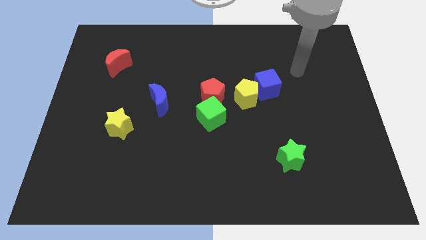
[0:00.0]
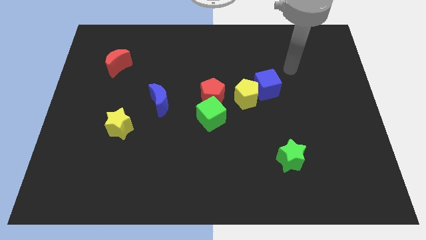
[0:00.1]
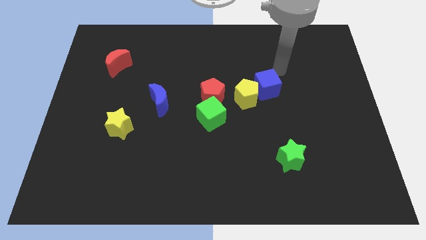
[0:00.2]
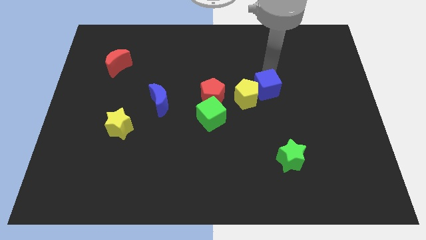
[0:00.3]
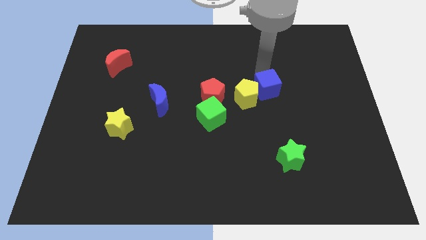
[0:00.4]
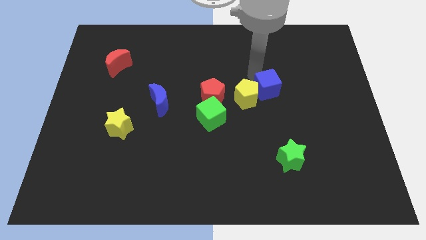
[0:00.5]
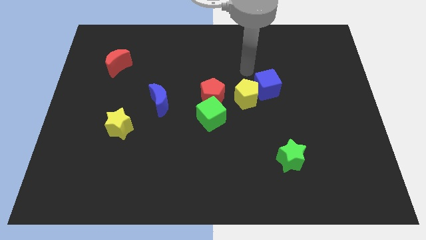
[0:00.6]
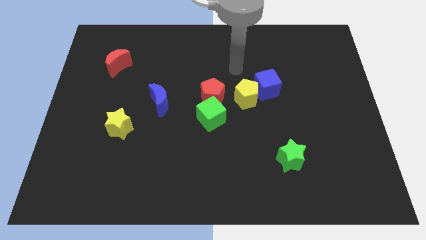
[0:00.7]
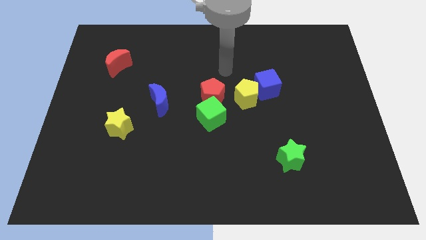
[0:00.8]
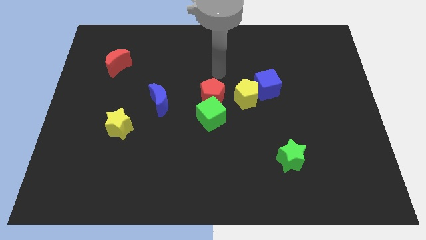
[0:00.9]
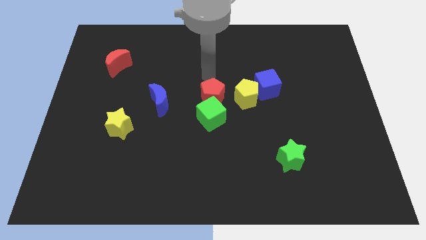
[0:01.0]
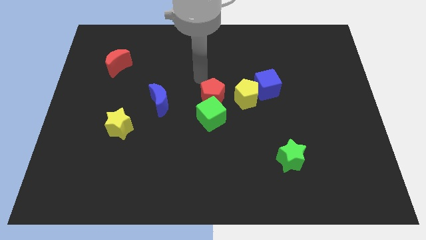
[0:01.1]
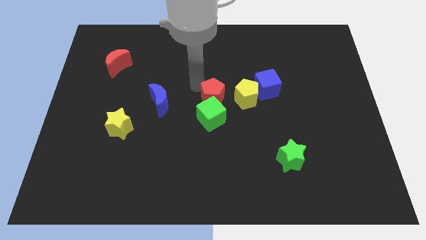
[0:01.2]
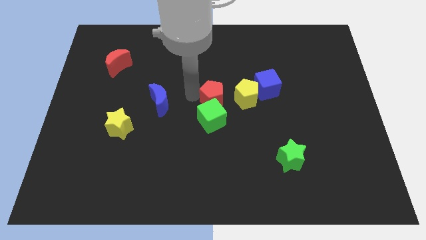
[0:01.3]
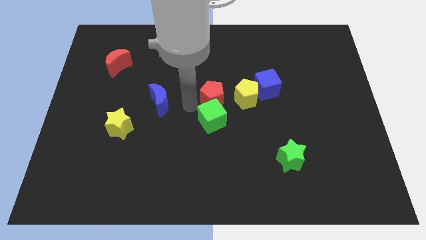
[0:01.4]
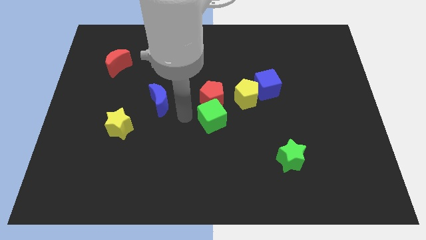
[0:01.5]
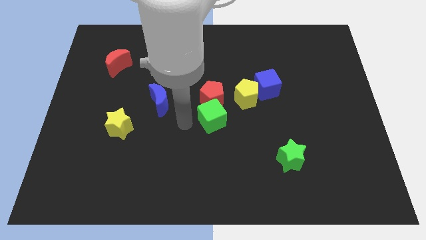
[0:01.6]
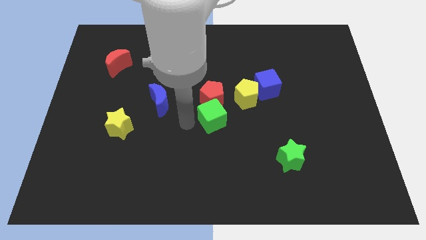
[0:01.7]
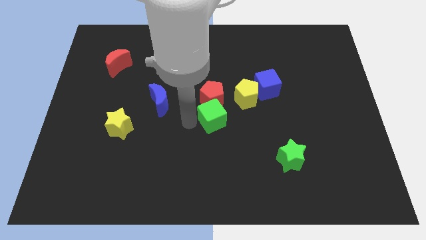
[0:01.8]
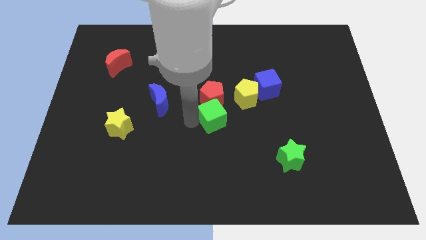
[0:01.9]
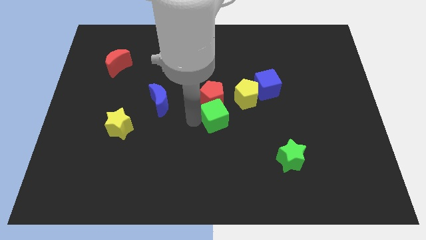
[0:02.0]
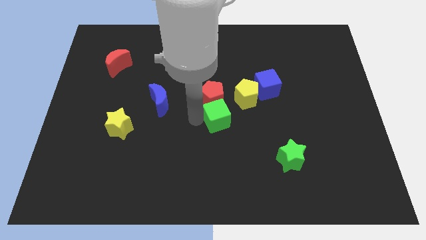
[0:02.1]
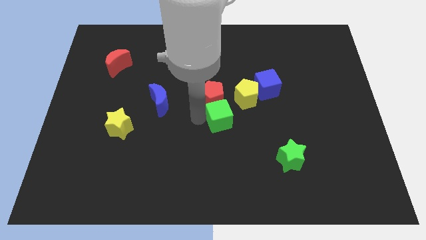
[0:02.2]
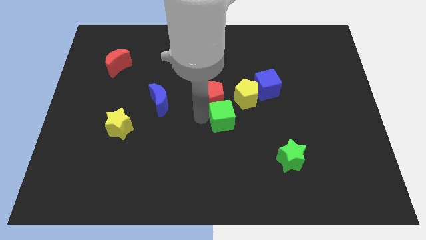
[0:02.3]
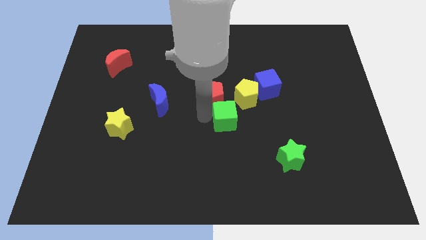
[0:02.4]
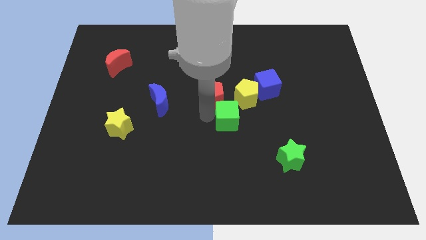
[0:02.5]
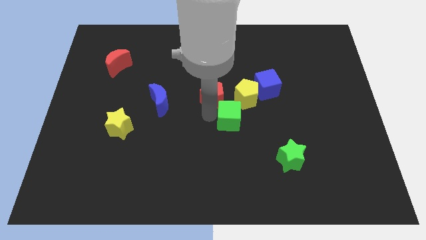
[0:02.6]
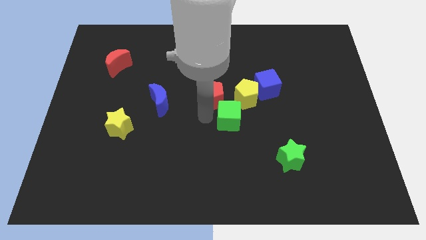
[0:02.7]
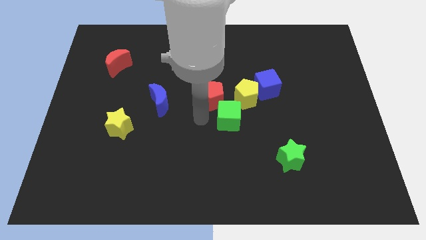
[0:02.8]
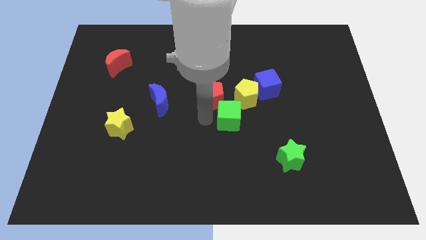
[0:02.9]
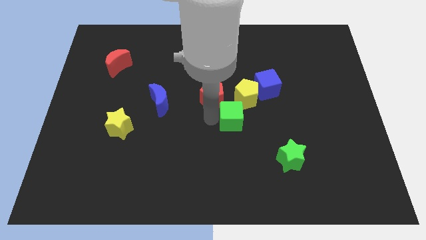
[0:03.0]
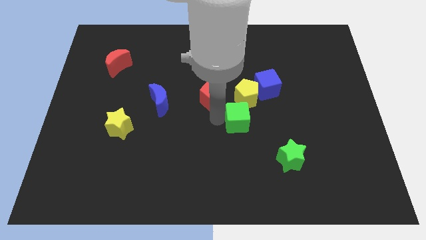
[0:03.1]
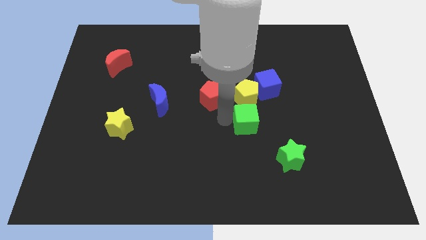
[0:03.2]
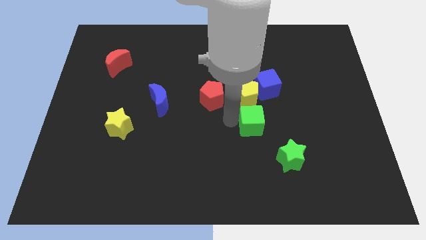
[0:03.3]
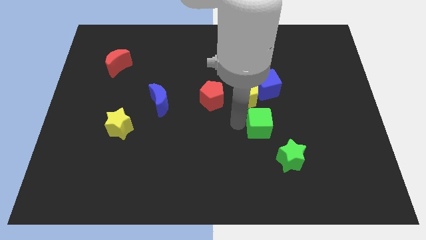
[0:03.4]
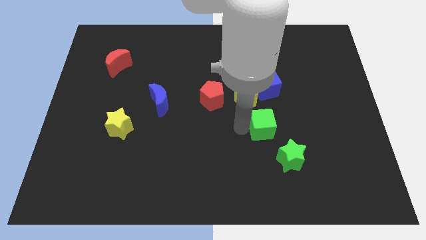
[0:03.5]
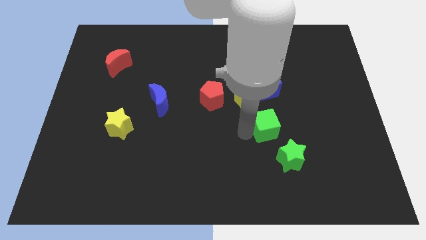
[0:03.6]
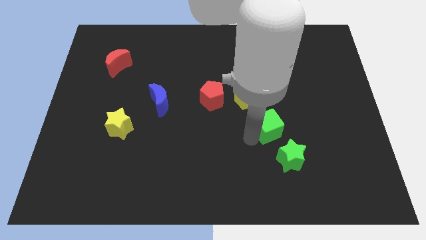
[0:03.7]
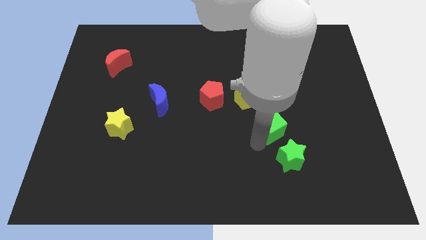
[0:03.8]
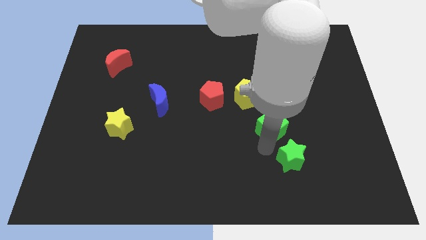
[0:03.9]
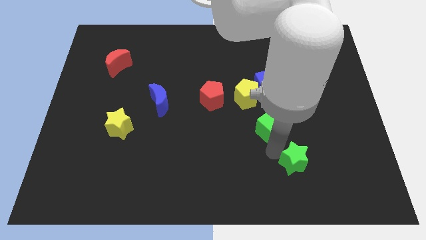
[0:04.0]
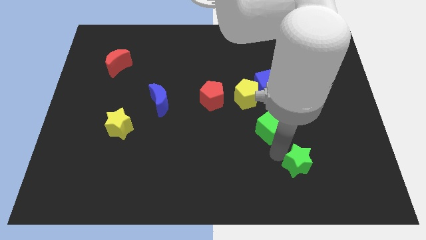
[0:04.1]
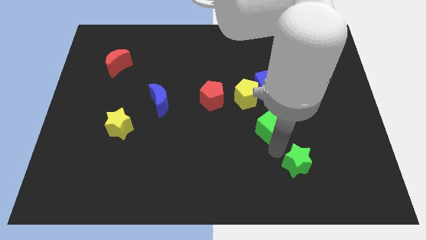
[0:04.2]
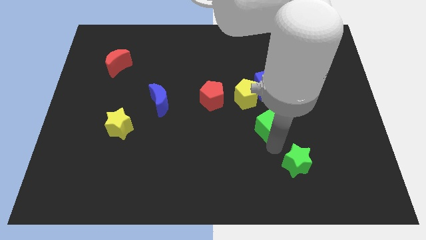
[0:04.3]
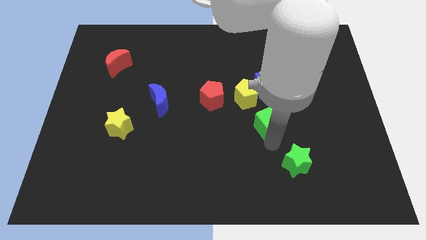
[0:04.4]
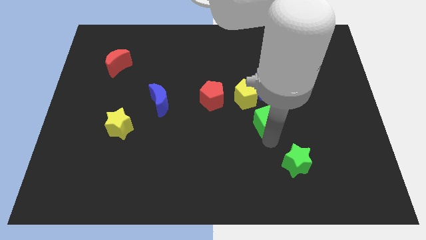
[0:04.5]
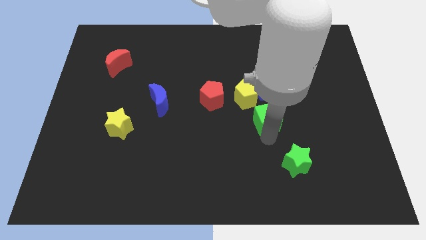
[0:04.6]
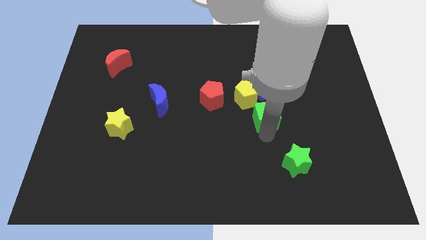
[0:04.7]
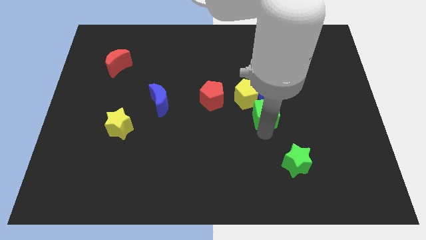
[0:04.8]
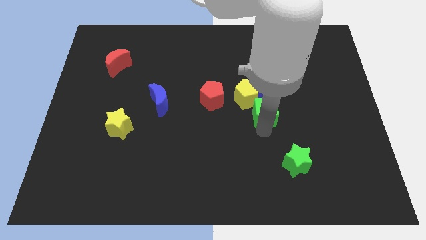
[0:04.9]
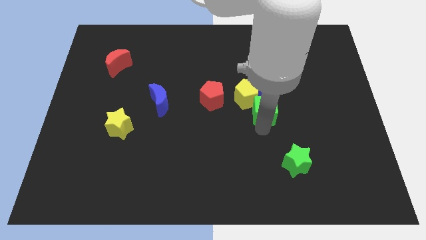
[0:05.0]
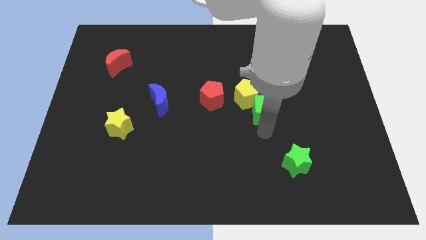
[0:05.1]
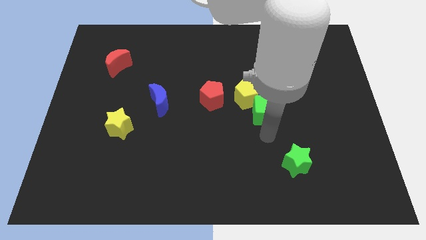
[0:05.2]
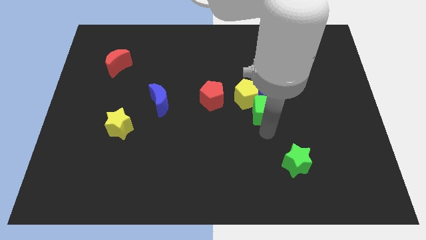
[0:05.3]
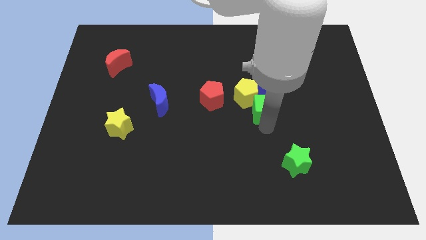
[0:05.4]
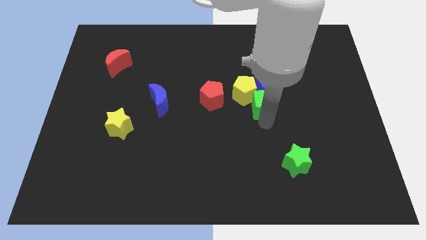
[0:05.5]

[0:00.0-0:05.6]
put the green cube next to the blue cube

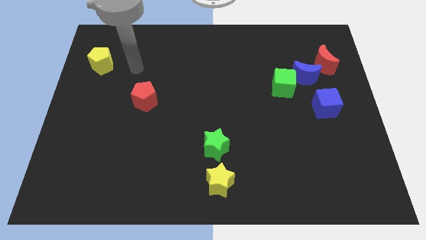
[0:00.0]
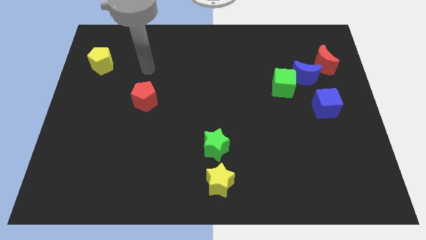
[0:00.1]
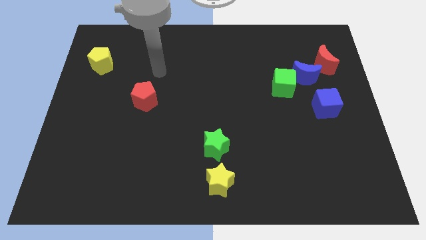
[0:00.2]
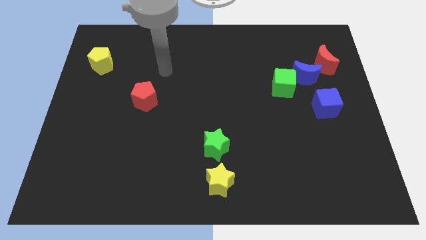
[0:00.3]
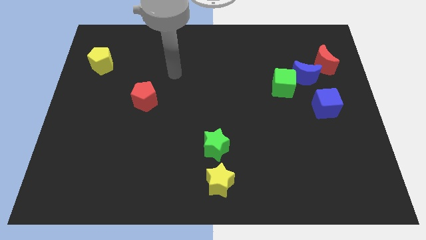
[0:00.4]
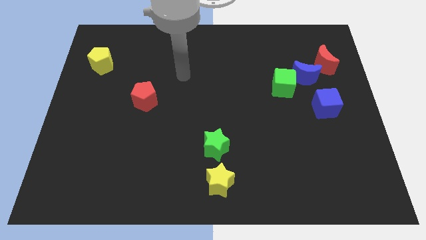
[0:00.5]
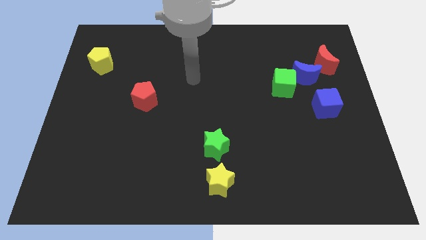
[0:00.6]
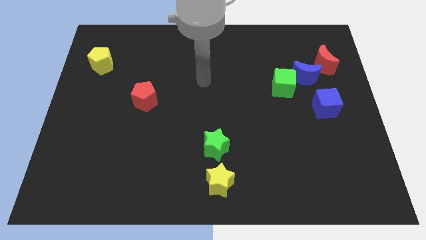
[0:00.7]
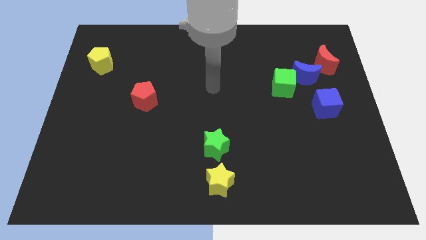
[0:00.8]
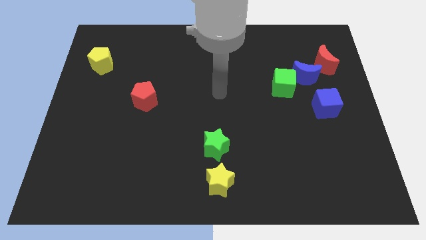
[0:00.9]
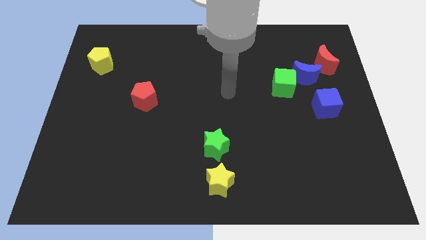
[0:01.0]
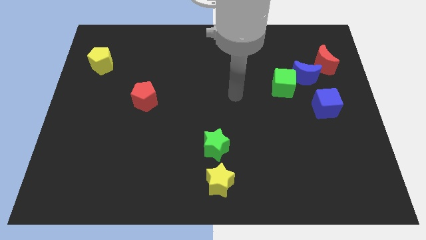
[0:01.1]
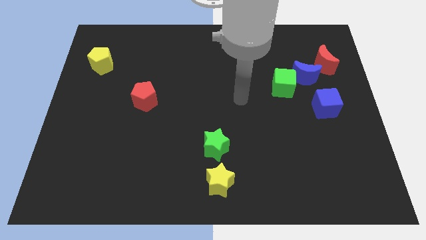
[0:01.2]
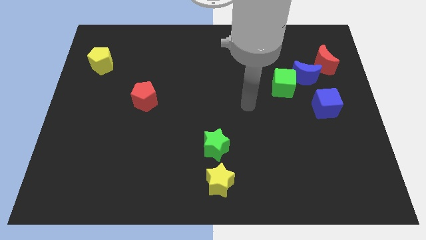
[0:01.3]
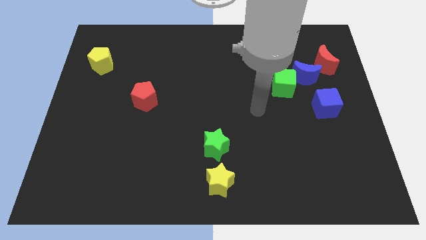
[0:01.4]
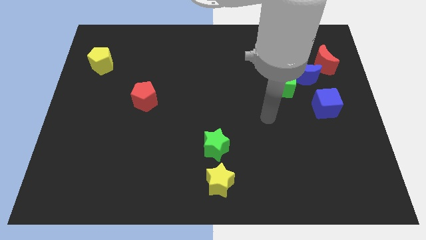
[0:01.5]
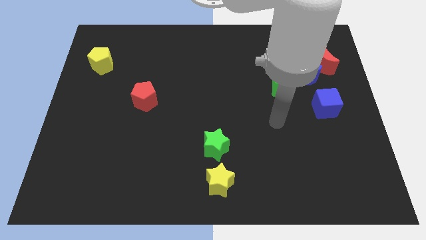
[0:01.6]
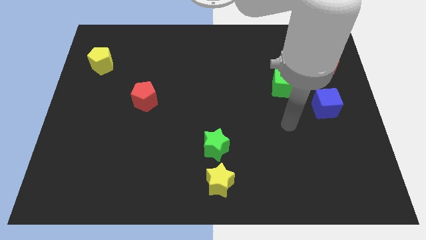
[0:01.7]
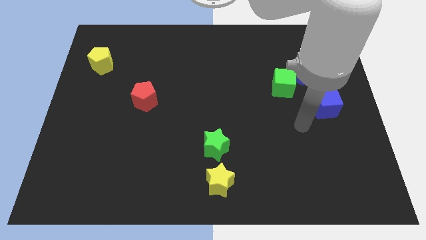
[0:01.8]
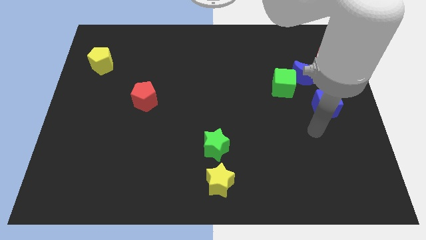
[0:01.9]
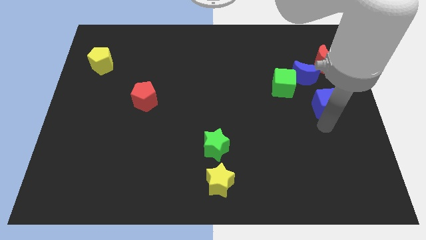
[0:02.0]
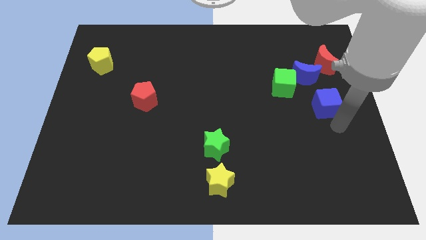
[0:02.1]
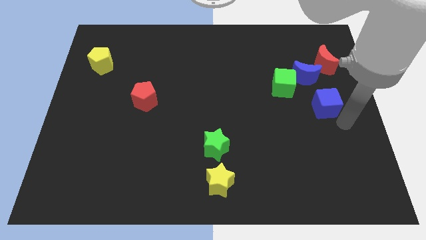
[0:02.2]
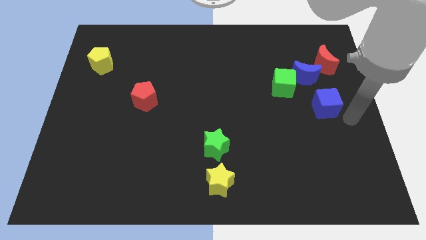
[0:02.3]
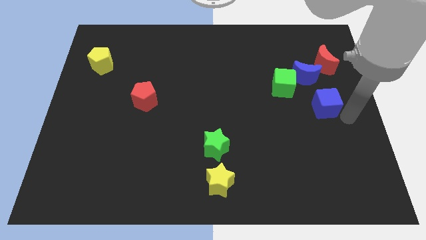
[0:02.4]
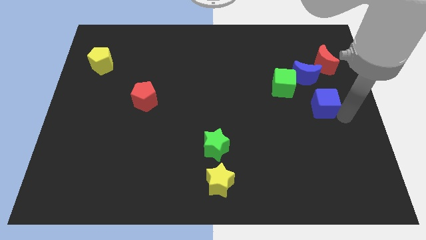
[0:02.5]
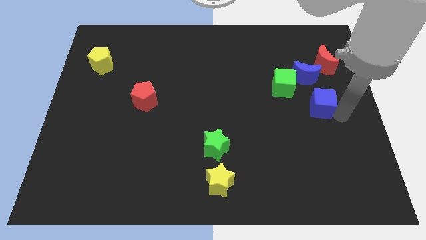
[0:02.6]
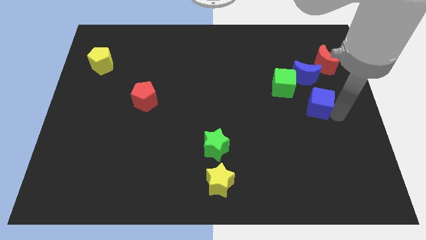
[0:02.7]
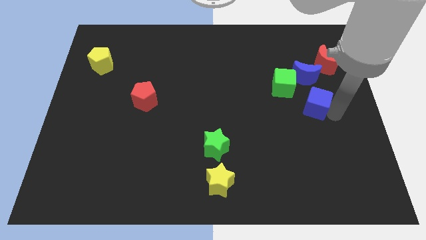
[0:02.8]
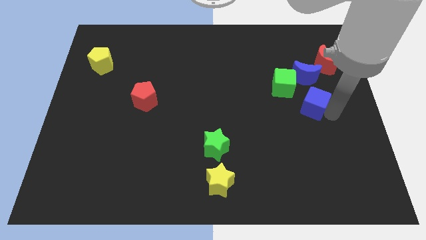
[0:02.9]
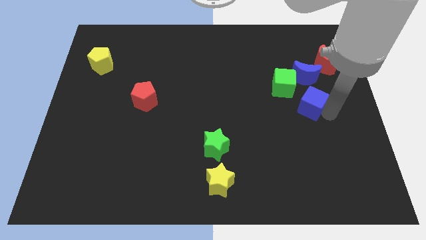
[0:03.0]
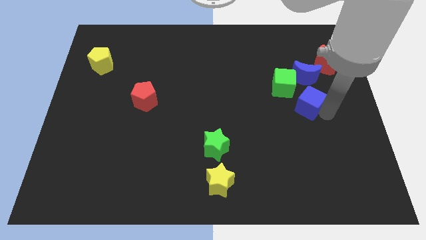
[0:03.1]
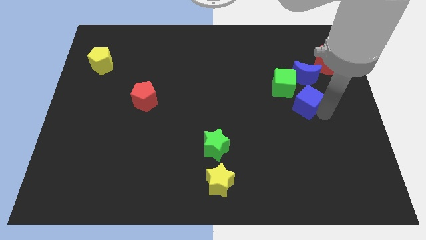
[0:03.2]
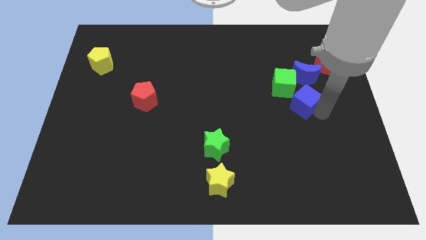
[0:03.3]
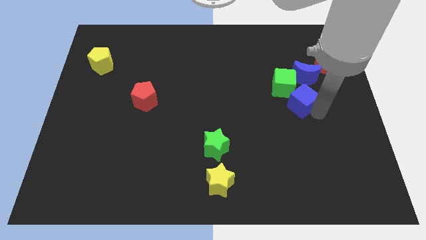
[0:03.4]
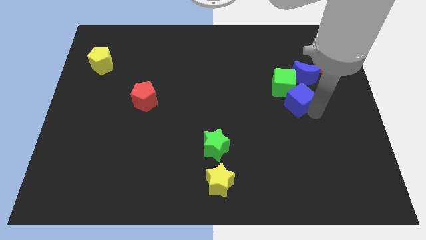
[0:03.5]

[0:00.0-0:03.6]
move the blue cube next to the green cube
